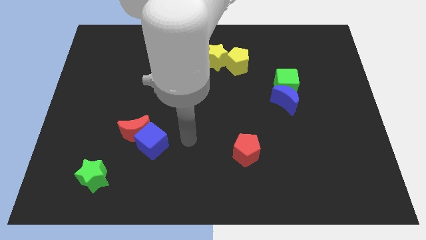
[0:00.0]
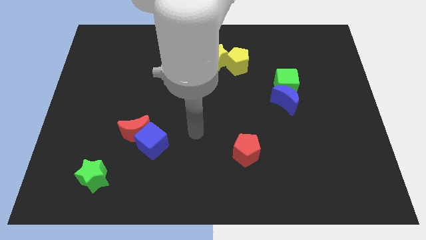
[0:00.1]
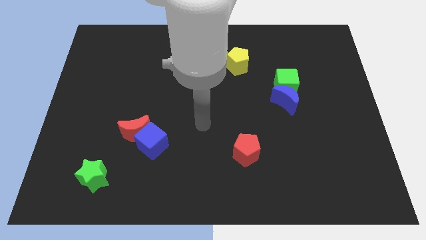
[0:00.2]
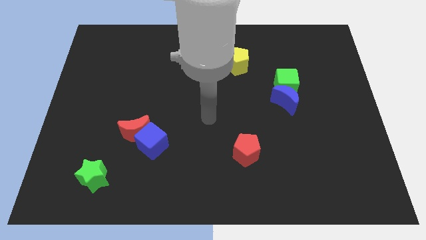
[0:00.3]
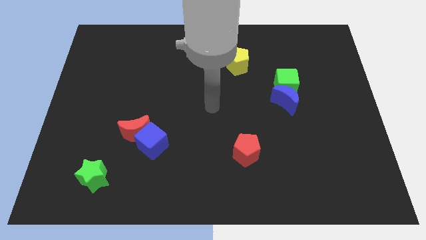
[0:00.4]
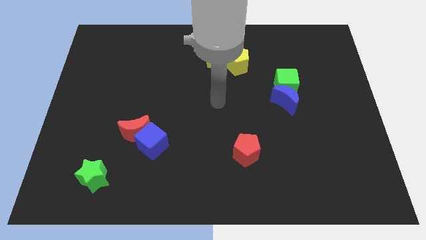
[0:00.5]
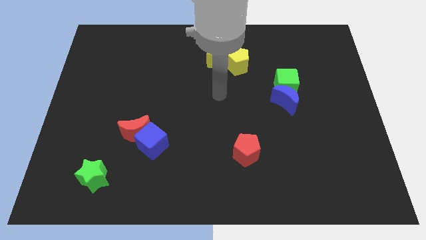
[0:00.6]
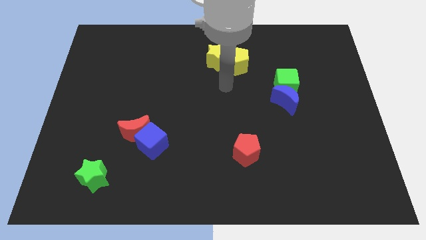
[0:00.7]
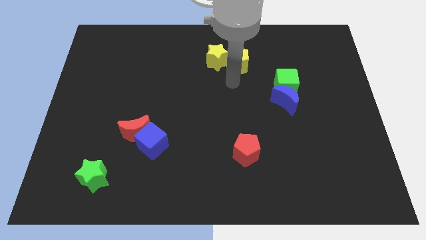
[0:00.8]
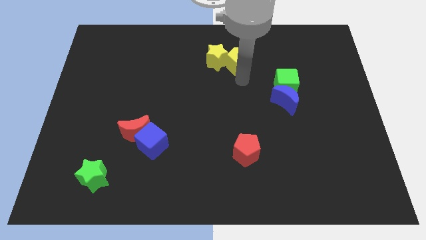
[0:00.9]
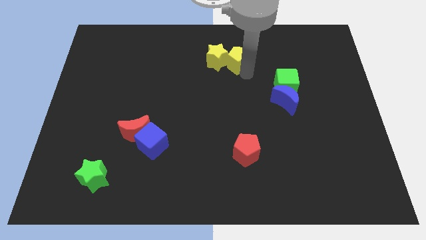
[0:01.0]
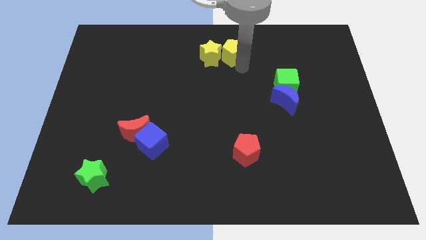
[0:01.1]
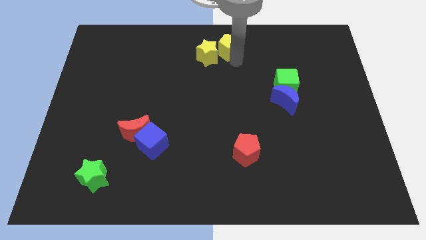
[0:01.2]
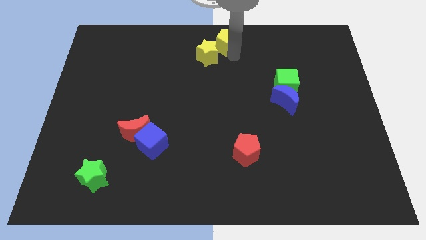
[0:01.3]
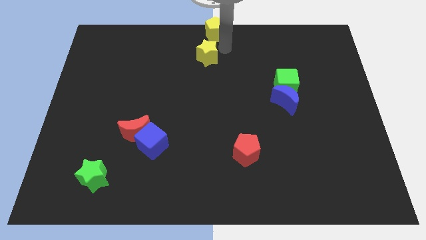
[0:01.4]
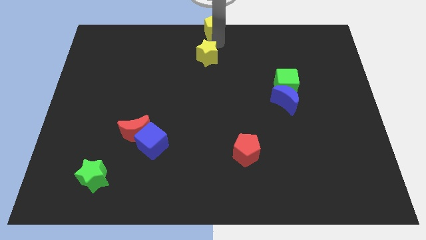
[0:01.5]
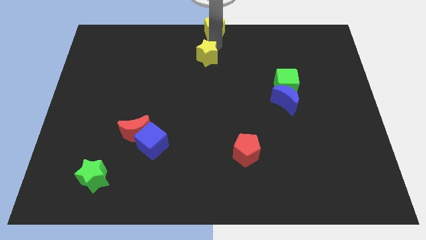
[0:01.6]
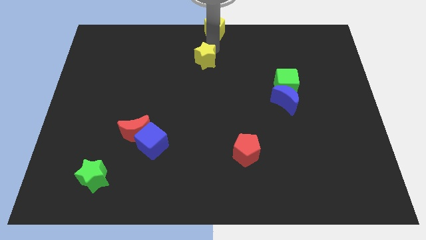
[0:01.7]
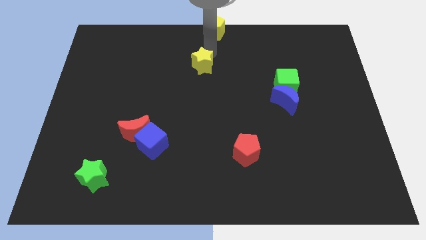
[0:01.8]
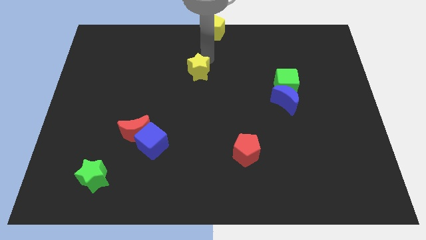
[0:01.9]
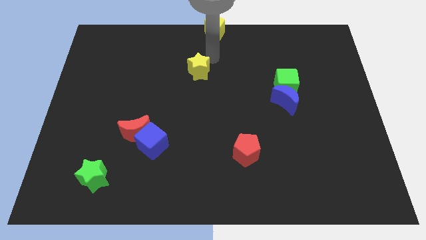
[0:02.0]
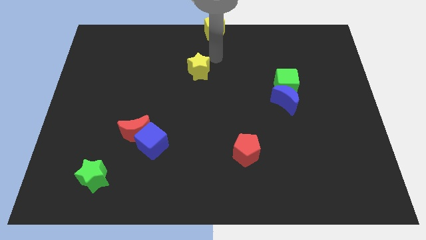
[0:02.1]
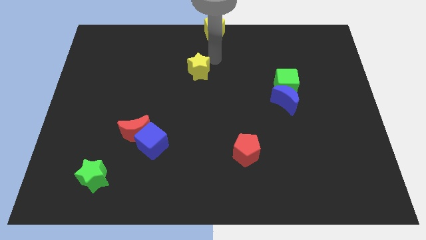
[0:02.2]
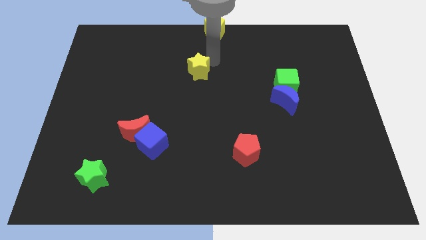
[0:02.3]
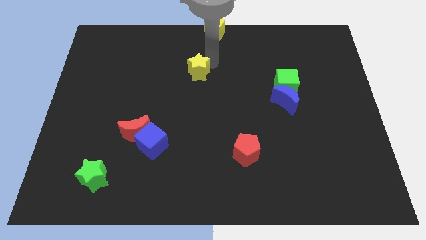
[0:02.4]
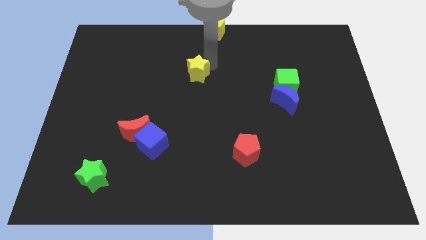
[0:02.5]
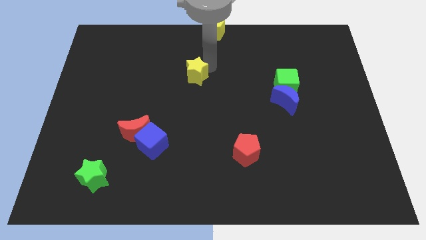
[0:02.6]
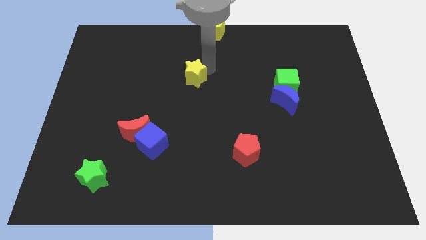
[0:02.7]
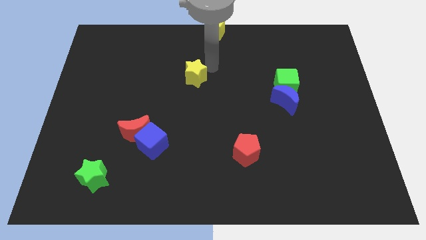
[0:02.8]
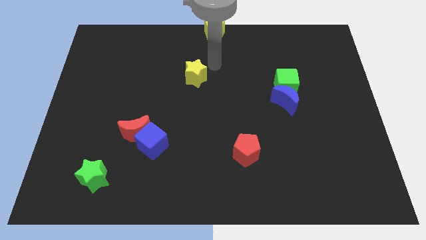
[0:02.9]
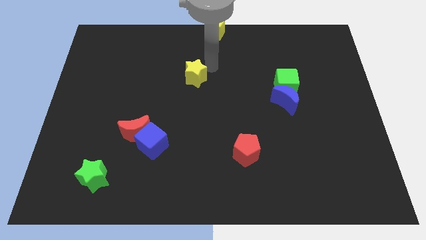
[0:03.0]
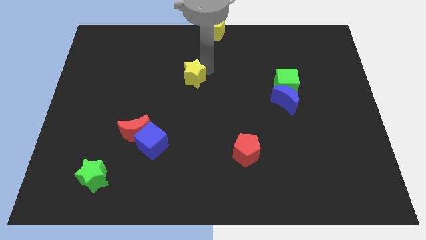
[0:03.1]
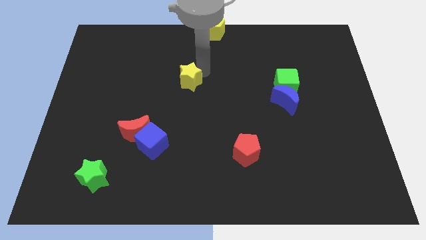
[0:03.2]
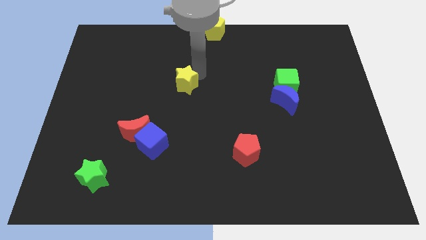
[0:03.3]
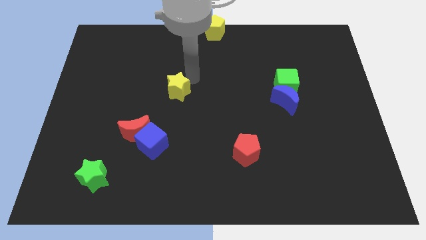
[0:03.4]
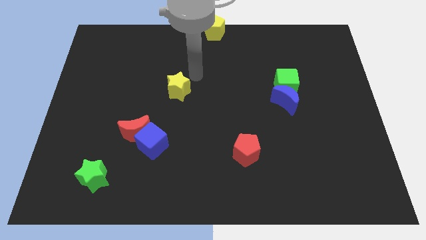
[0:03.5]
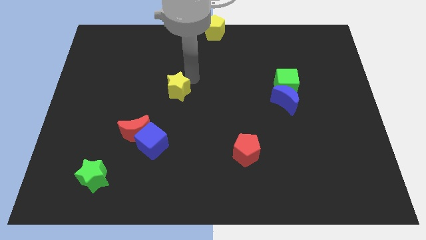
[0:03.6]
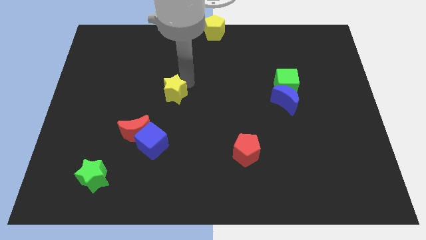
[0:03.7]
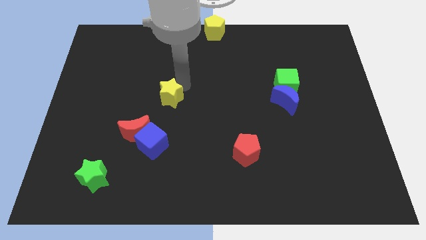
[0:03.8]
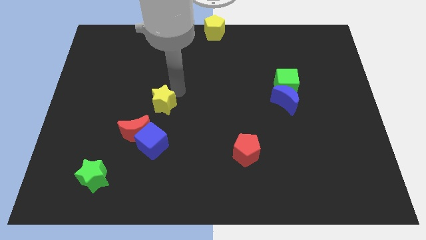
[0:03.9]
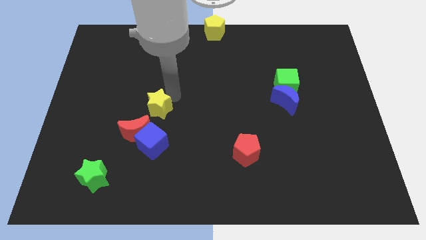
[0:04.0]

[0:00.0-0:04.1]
slide the yellow star downwards and left

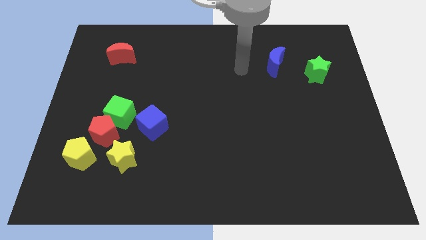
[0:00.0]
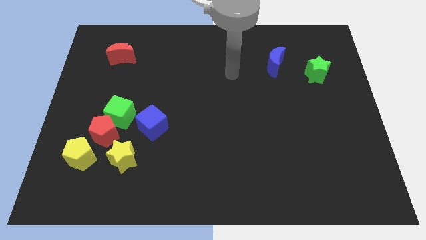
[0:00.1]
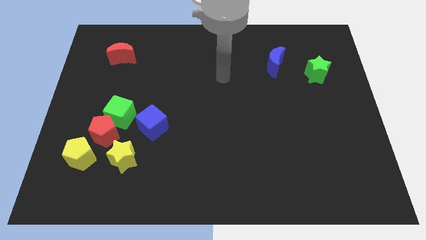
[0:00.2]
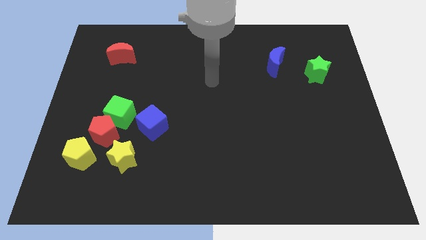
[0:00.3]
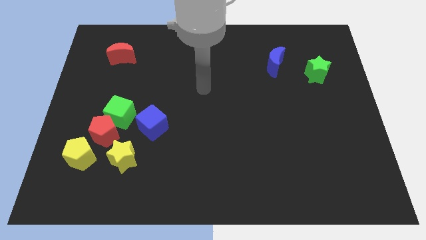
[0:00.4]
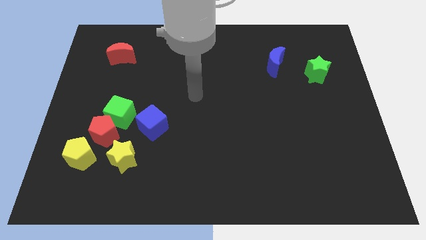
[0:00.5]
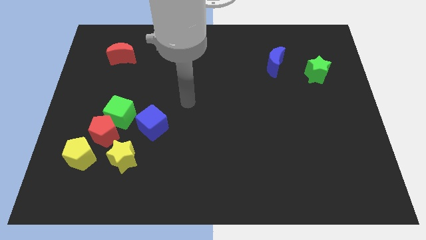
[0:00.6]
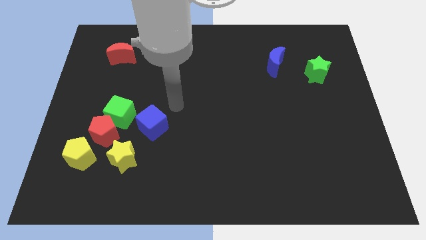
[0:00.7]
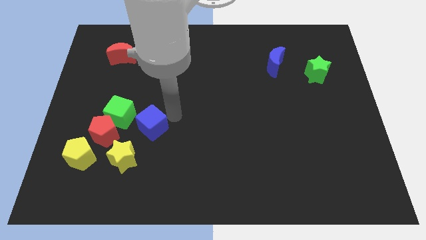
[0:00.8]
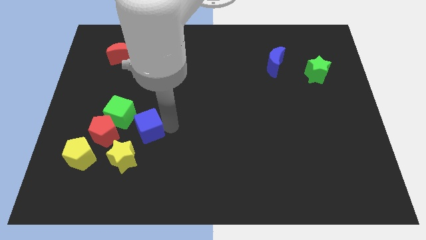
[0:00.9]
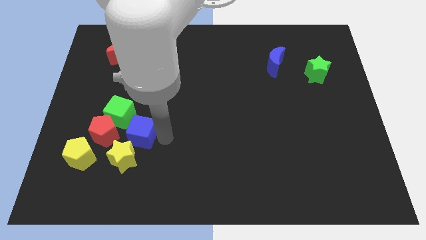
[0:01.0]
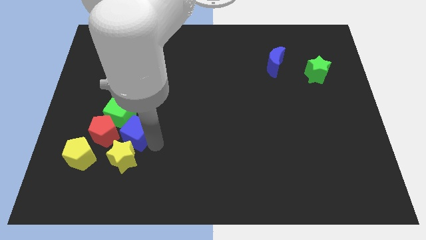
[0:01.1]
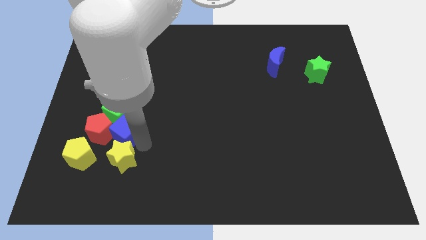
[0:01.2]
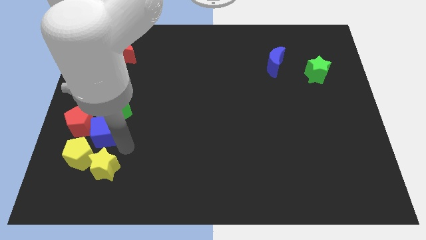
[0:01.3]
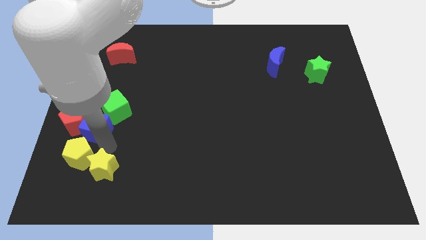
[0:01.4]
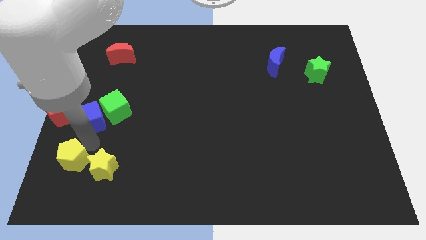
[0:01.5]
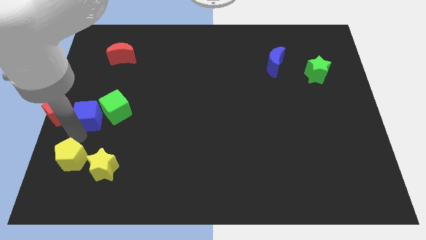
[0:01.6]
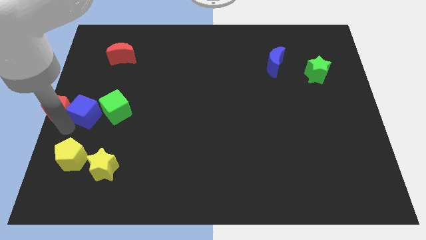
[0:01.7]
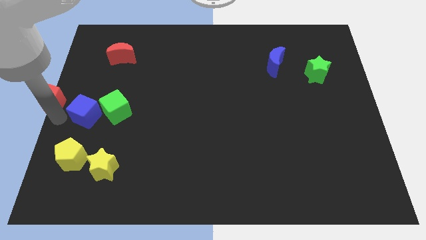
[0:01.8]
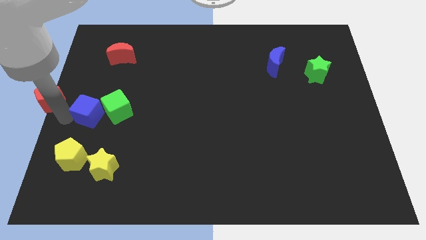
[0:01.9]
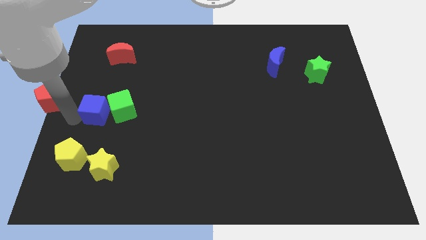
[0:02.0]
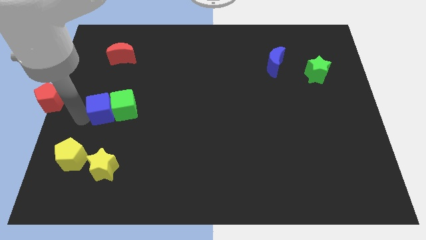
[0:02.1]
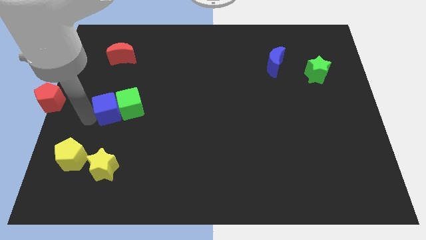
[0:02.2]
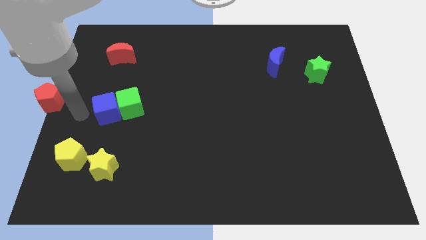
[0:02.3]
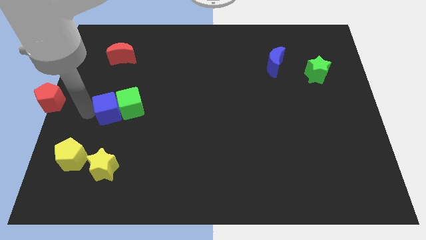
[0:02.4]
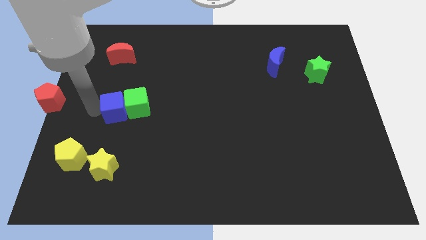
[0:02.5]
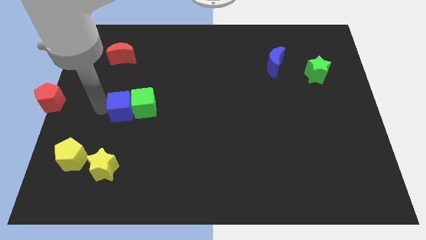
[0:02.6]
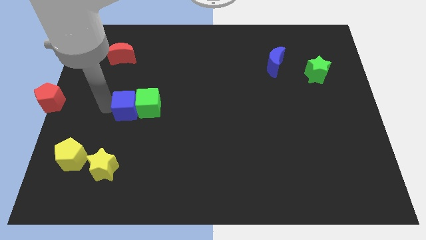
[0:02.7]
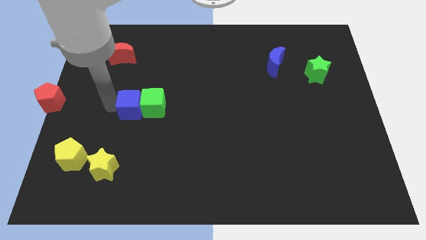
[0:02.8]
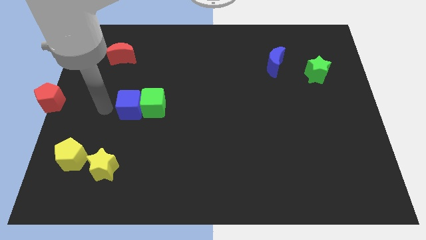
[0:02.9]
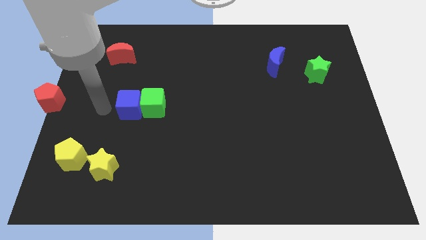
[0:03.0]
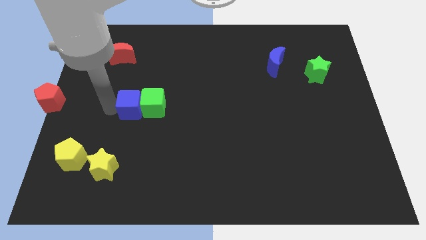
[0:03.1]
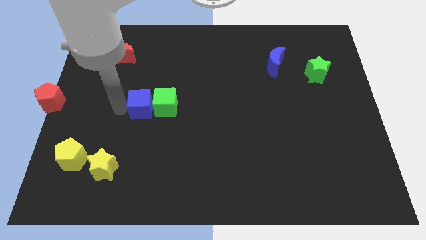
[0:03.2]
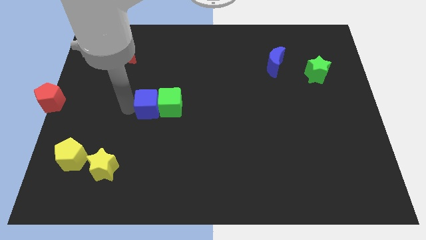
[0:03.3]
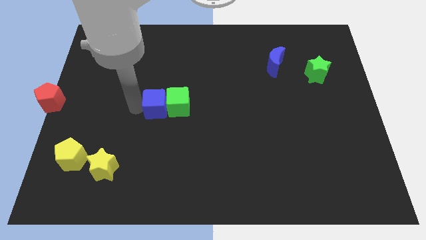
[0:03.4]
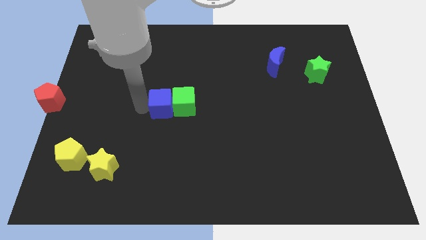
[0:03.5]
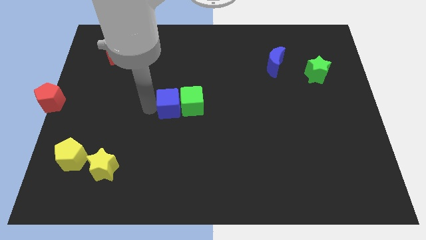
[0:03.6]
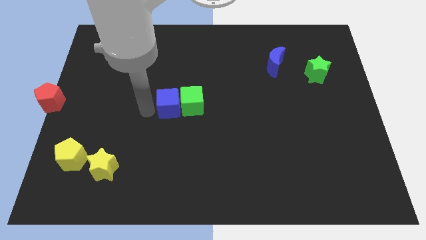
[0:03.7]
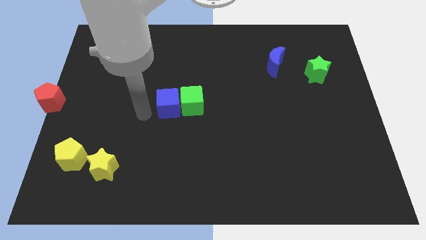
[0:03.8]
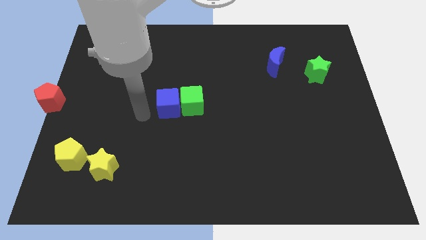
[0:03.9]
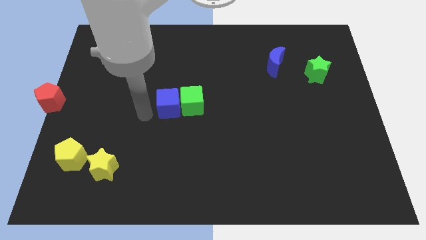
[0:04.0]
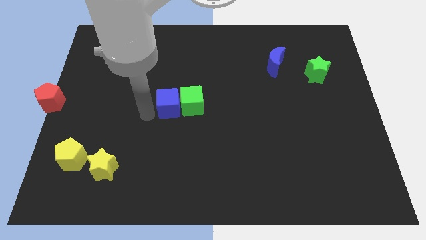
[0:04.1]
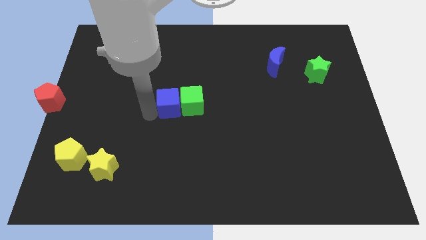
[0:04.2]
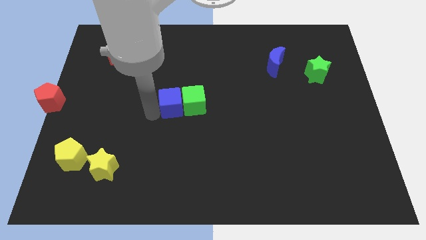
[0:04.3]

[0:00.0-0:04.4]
slide the blue cube upwards and then to the right a bit
